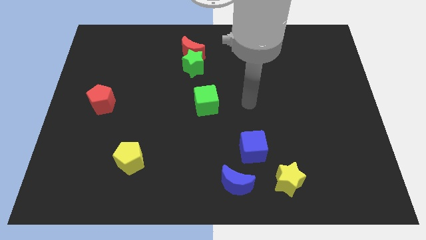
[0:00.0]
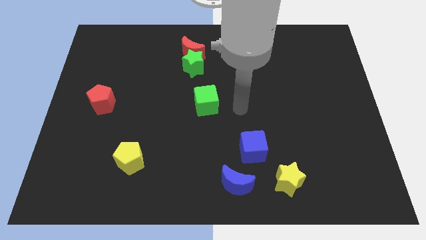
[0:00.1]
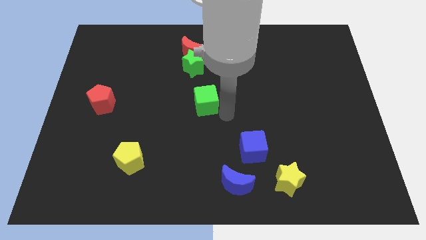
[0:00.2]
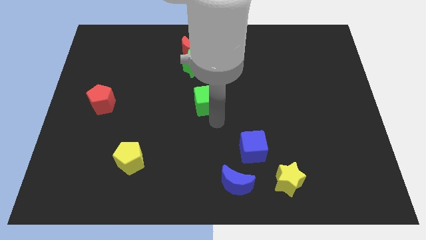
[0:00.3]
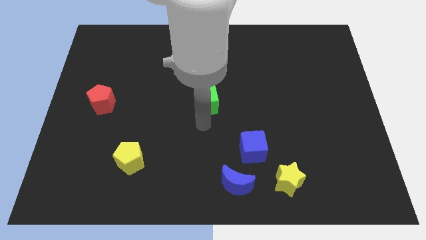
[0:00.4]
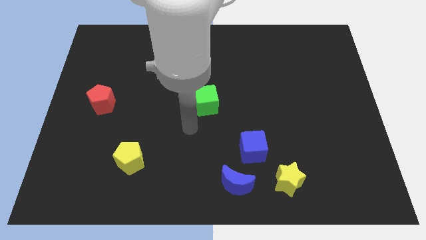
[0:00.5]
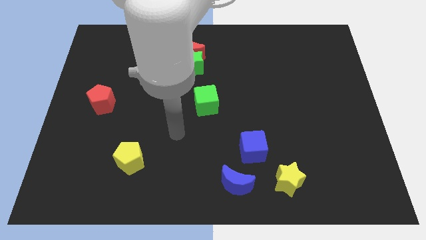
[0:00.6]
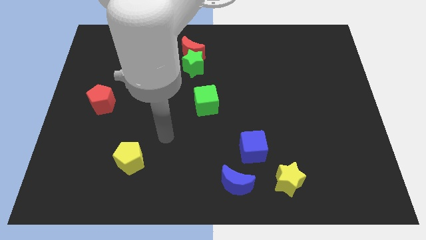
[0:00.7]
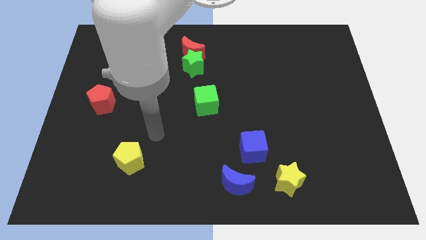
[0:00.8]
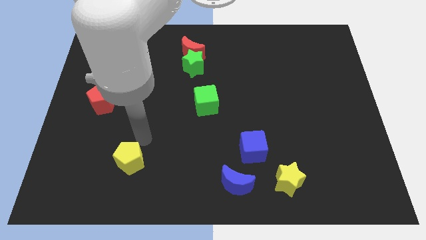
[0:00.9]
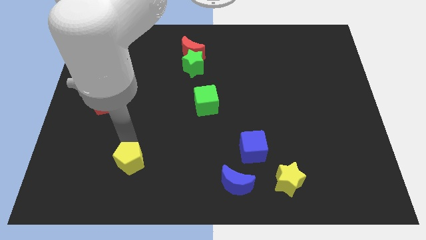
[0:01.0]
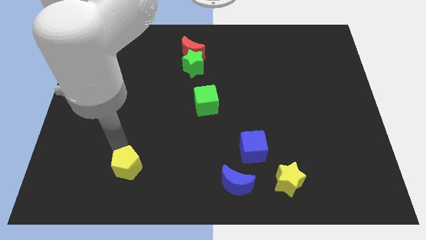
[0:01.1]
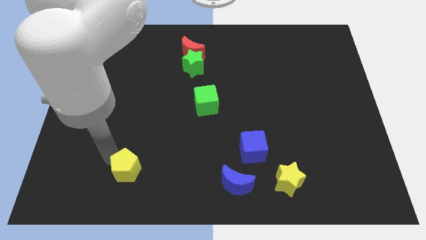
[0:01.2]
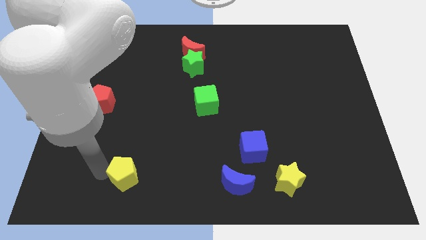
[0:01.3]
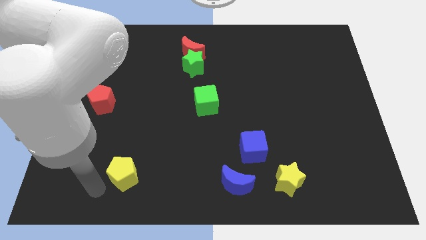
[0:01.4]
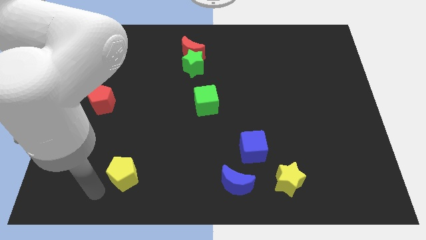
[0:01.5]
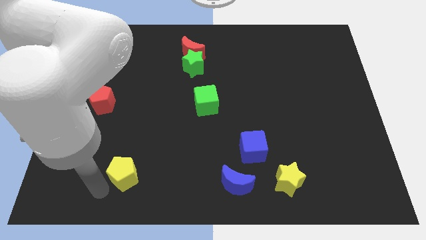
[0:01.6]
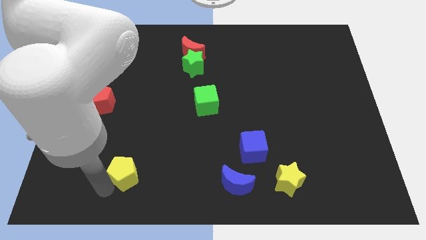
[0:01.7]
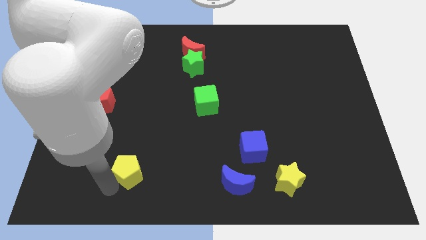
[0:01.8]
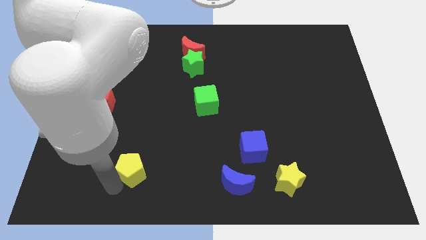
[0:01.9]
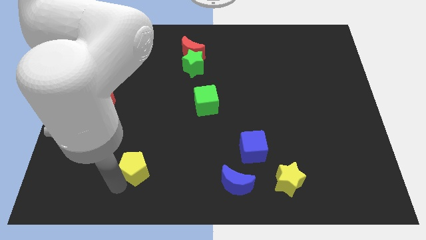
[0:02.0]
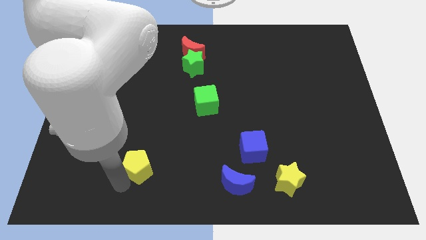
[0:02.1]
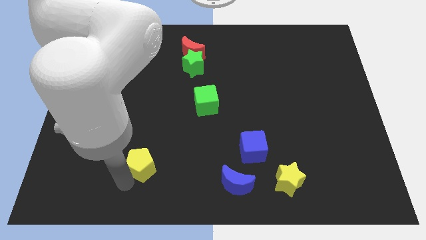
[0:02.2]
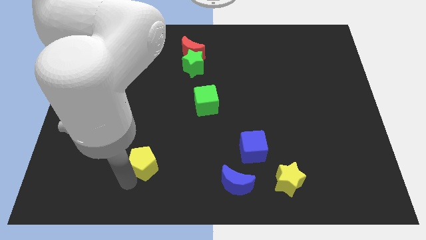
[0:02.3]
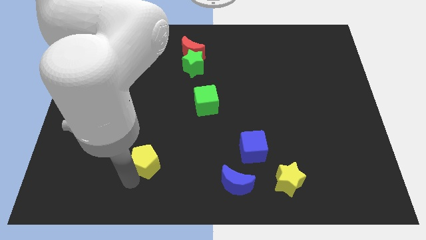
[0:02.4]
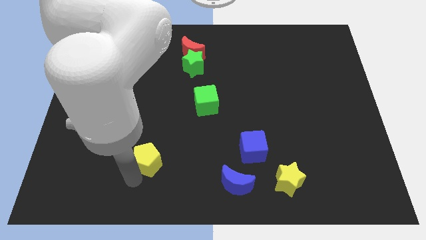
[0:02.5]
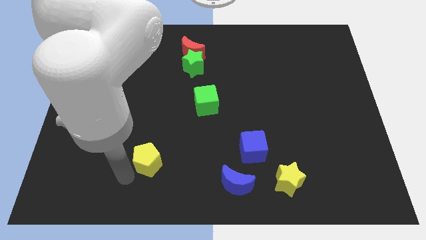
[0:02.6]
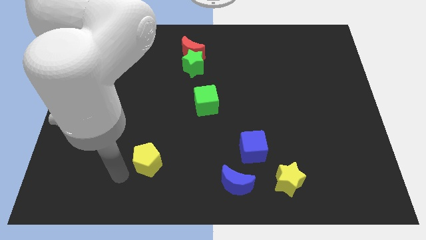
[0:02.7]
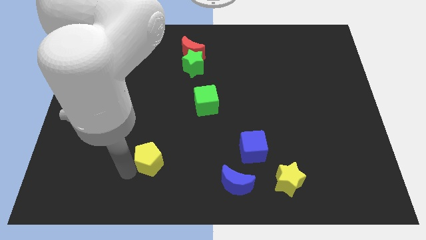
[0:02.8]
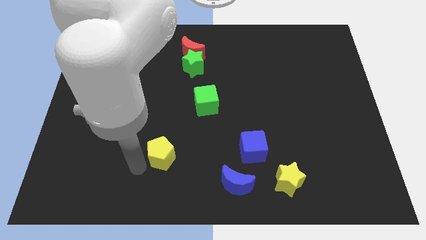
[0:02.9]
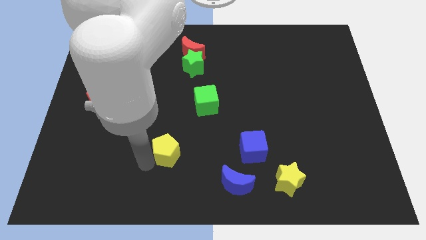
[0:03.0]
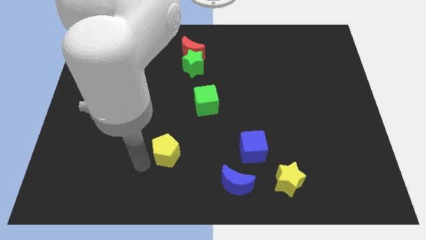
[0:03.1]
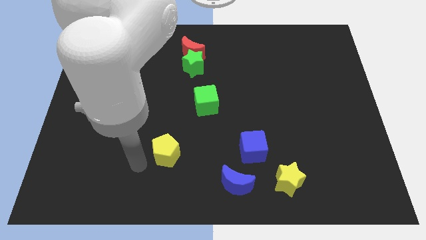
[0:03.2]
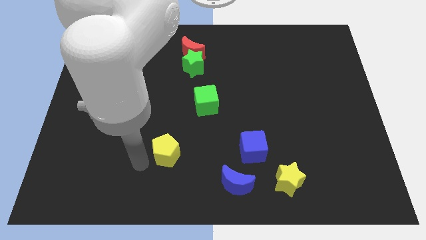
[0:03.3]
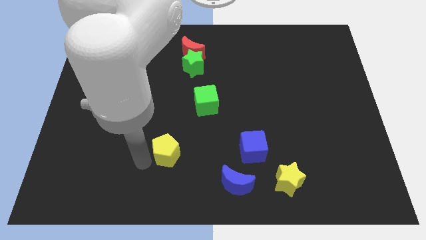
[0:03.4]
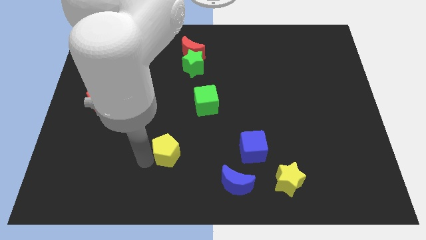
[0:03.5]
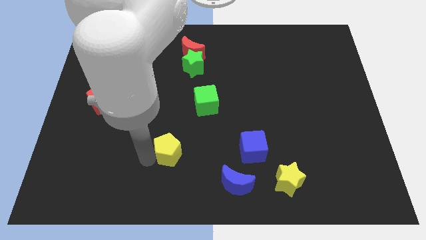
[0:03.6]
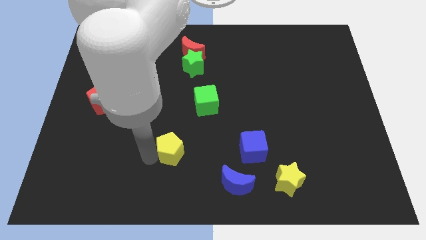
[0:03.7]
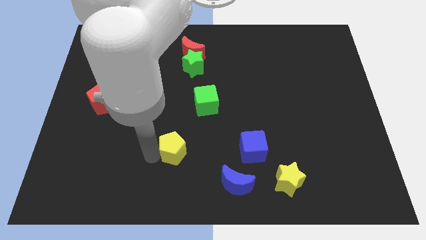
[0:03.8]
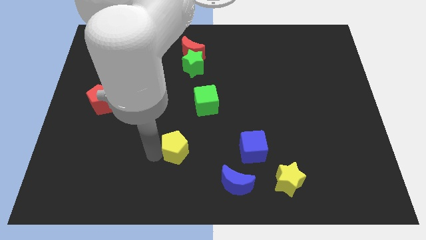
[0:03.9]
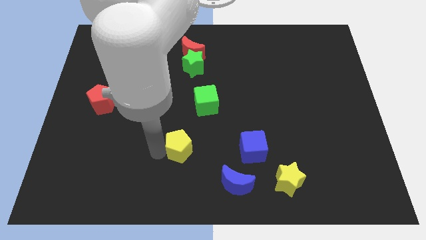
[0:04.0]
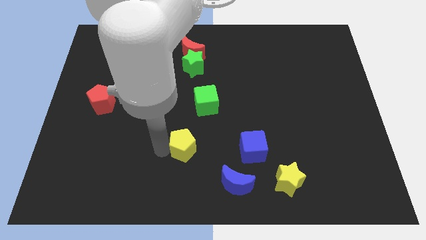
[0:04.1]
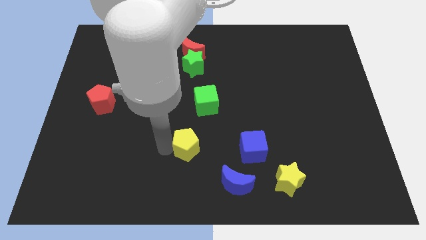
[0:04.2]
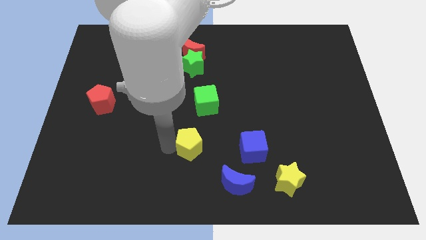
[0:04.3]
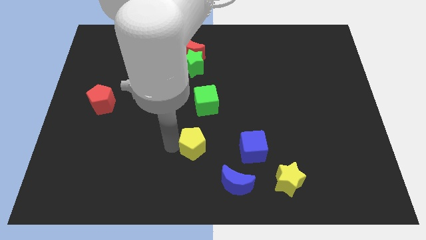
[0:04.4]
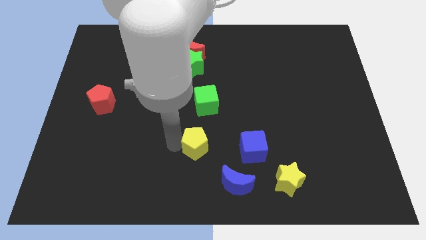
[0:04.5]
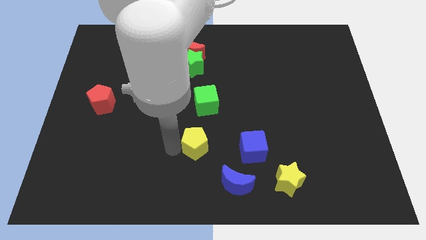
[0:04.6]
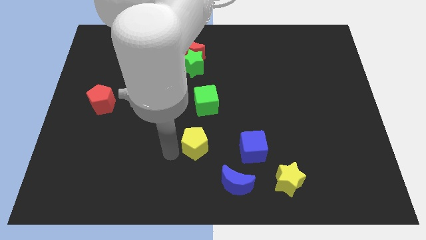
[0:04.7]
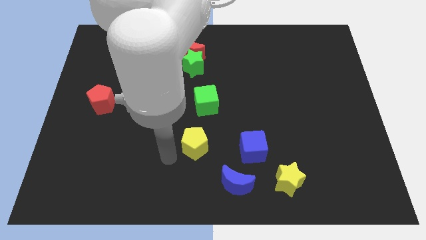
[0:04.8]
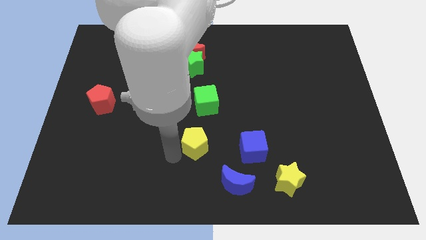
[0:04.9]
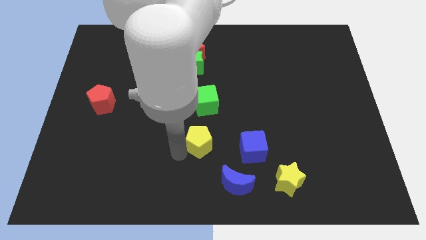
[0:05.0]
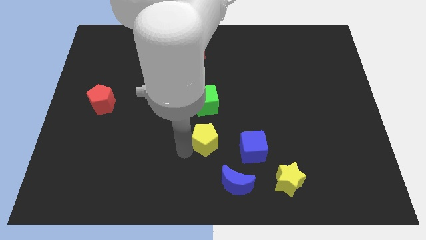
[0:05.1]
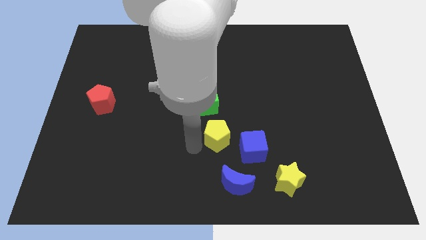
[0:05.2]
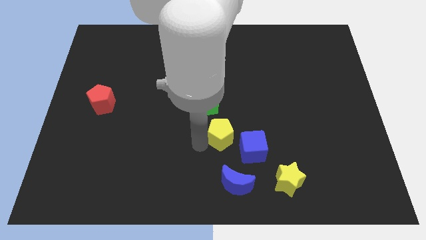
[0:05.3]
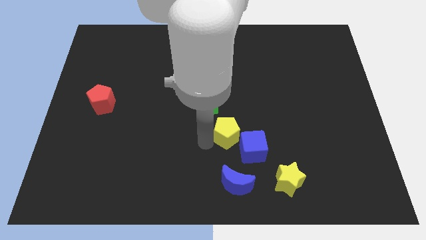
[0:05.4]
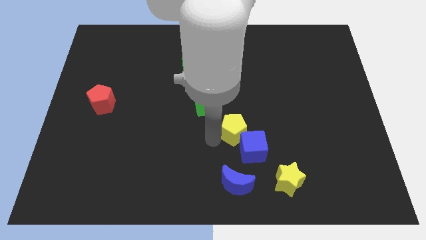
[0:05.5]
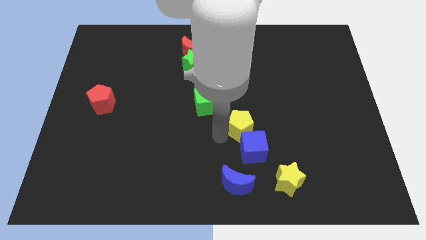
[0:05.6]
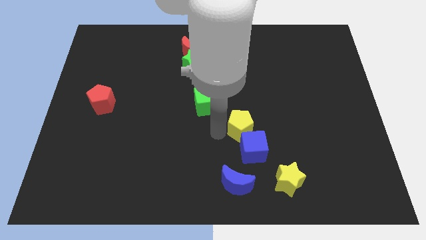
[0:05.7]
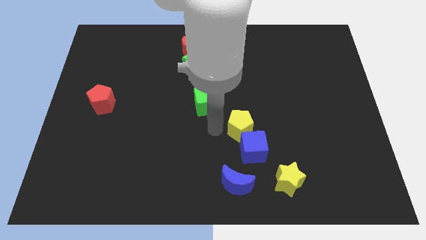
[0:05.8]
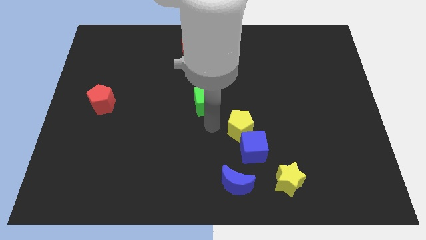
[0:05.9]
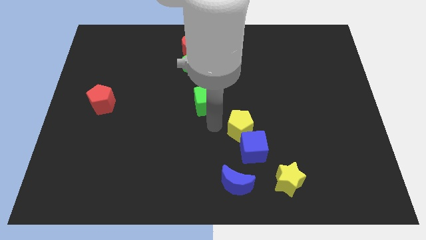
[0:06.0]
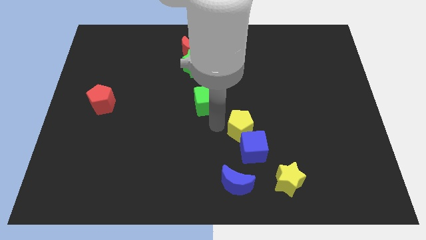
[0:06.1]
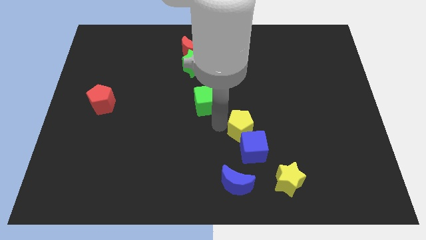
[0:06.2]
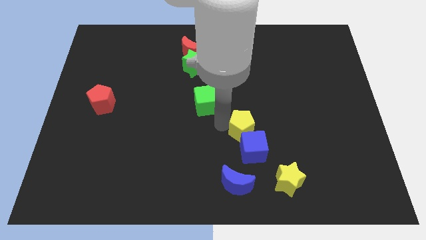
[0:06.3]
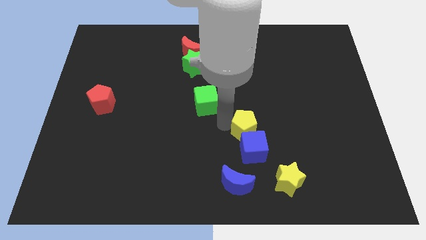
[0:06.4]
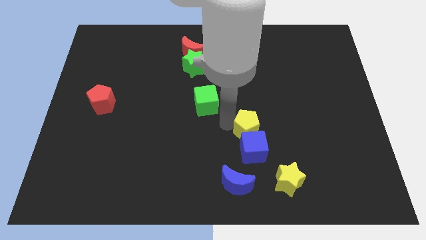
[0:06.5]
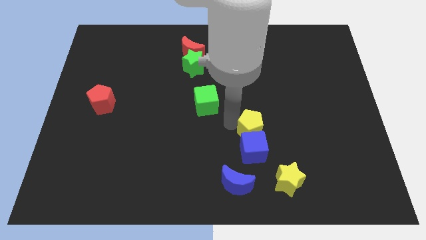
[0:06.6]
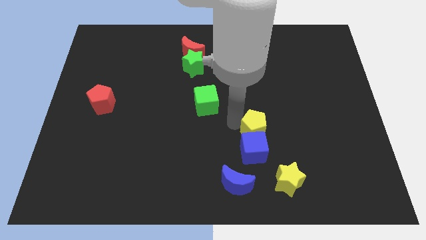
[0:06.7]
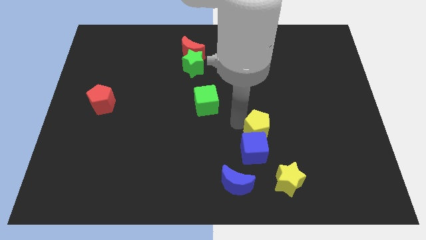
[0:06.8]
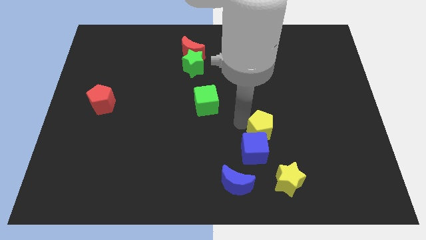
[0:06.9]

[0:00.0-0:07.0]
slide the yellow pentagon to the top of the yellow star

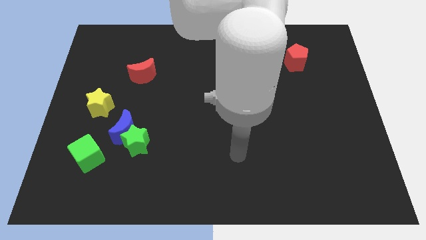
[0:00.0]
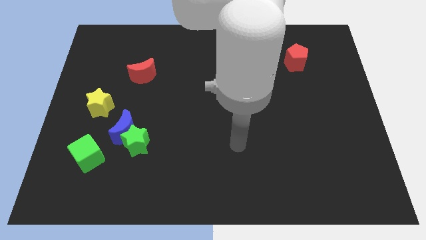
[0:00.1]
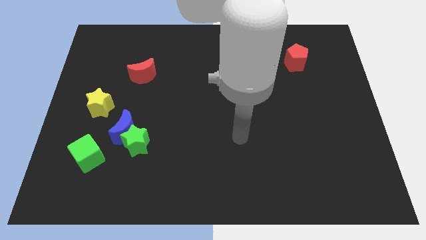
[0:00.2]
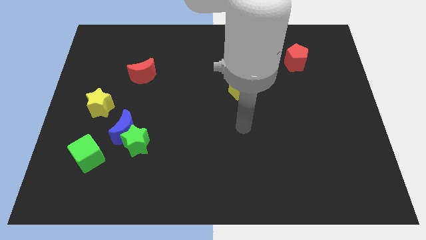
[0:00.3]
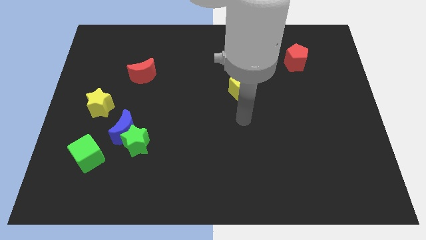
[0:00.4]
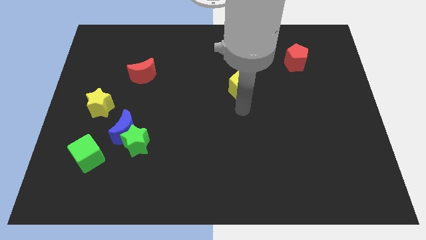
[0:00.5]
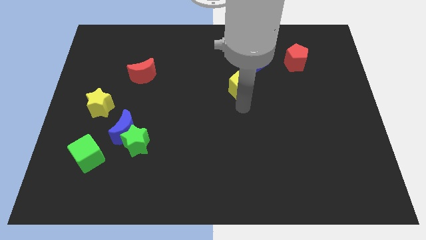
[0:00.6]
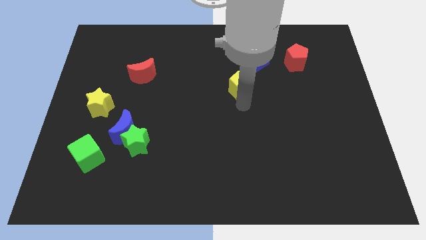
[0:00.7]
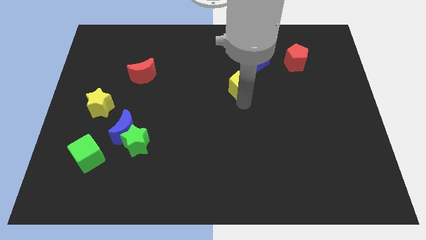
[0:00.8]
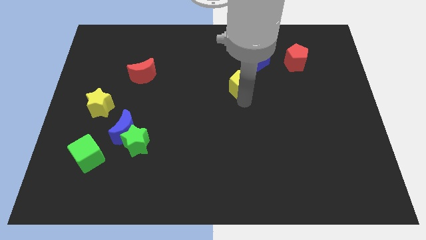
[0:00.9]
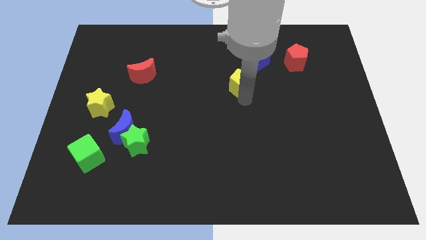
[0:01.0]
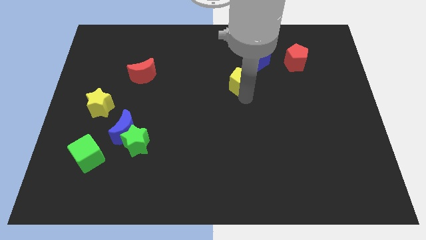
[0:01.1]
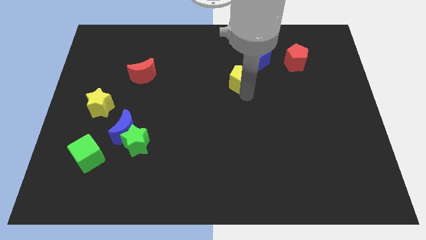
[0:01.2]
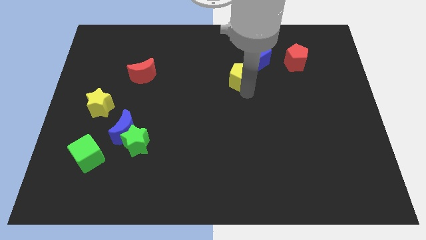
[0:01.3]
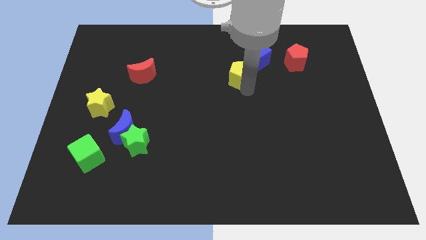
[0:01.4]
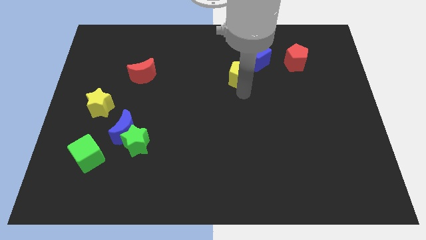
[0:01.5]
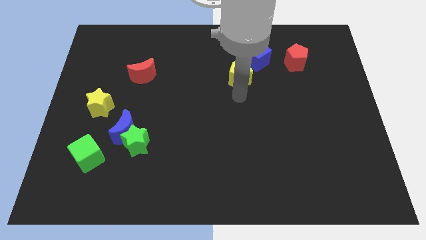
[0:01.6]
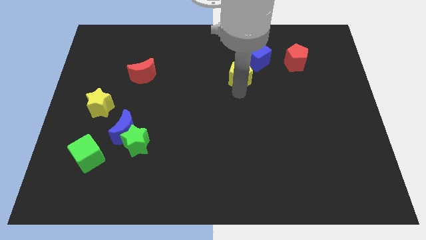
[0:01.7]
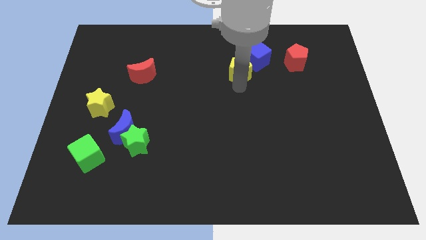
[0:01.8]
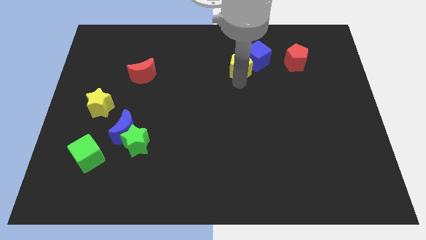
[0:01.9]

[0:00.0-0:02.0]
move the yellow pentagon to the left side of the red pentagon
